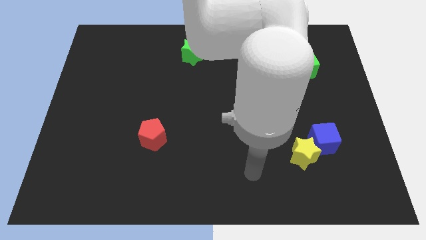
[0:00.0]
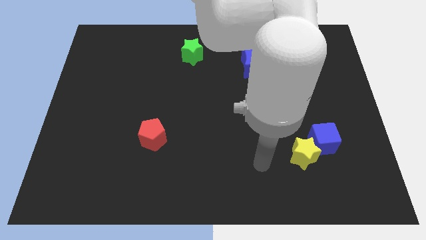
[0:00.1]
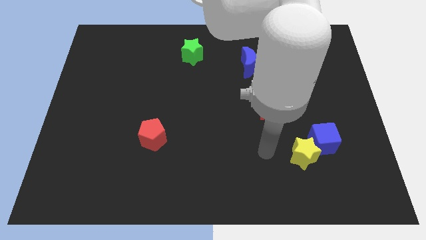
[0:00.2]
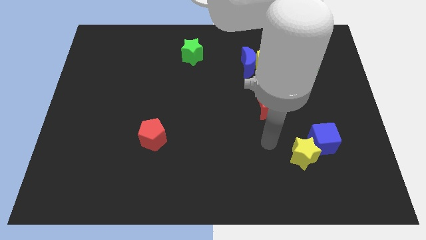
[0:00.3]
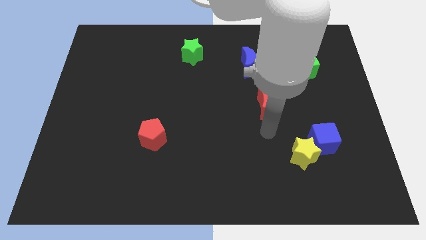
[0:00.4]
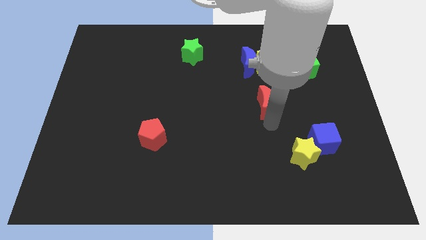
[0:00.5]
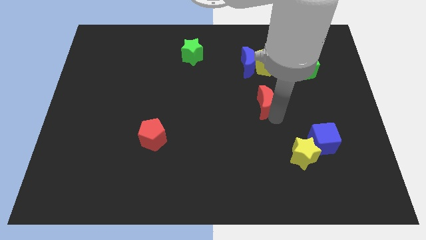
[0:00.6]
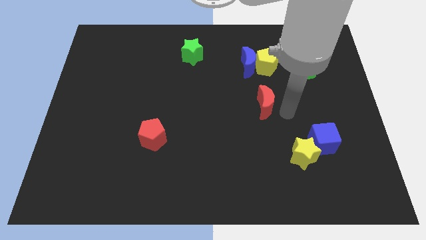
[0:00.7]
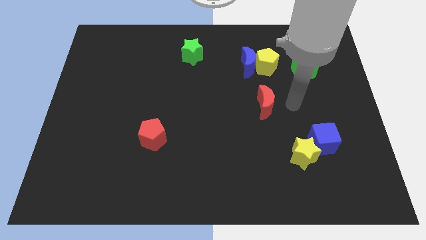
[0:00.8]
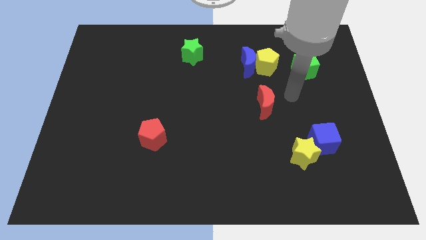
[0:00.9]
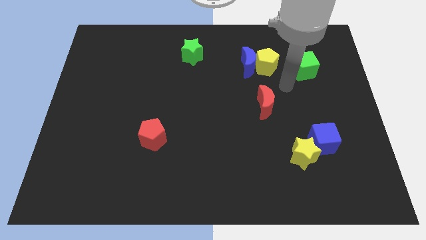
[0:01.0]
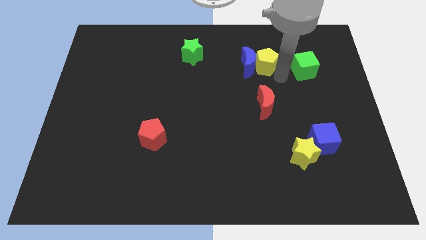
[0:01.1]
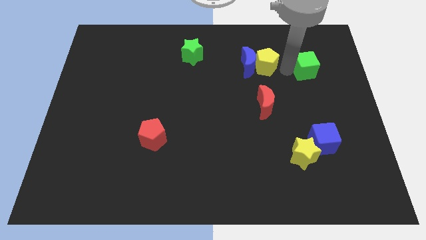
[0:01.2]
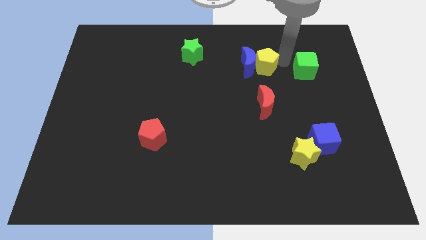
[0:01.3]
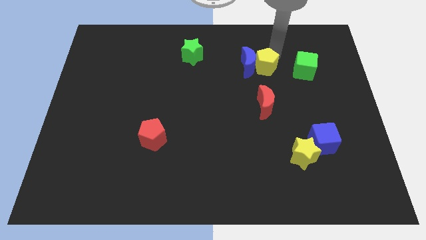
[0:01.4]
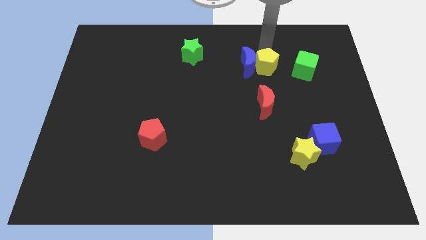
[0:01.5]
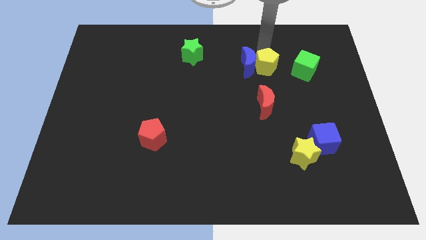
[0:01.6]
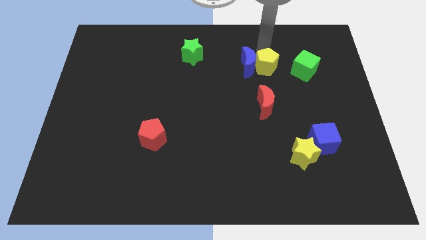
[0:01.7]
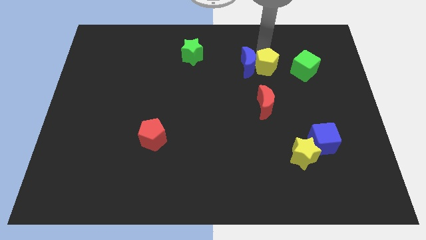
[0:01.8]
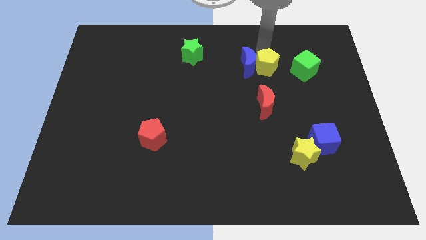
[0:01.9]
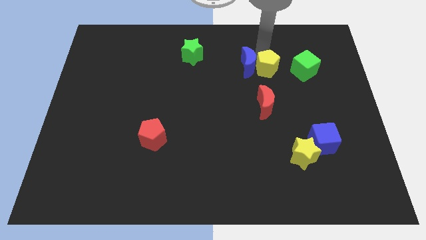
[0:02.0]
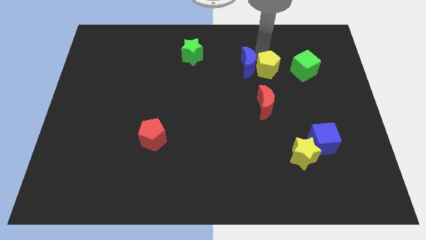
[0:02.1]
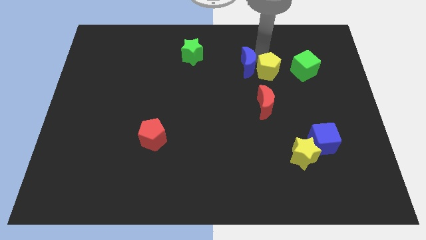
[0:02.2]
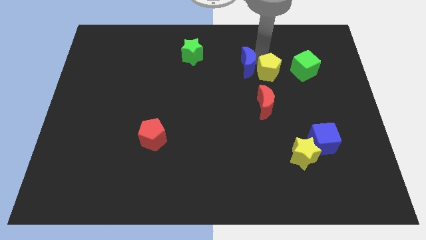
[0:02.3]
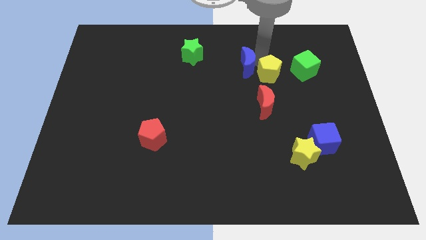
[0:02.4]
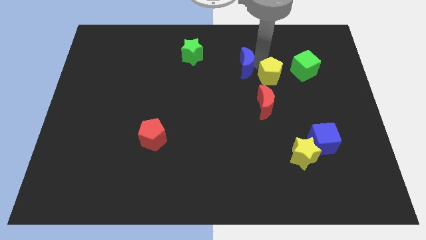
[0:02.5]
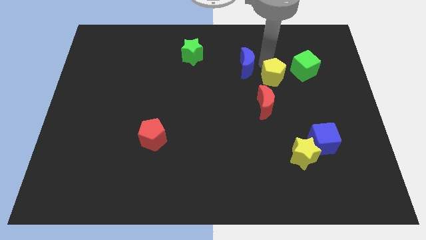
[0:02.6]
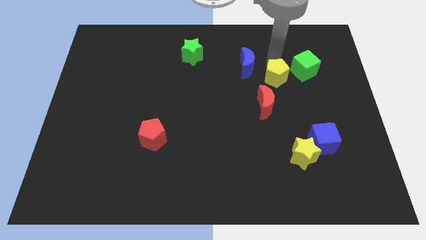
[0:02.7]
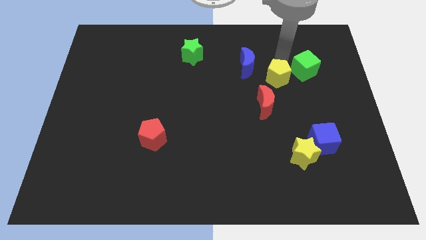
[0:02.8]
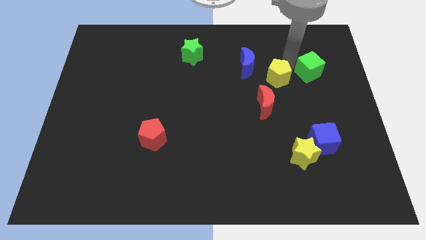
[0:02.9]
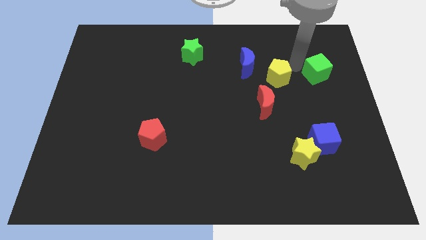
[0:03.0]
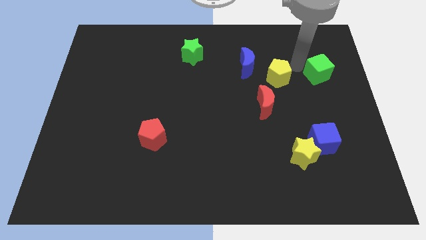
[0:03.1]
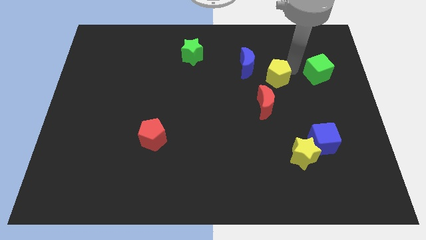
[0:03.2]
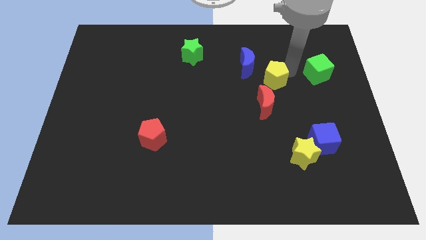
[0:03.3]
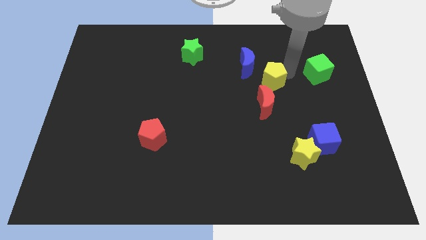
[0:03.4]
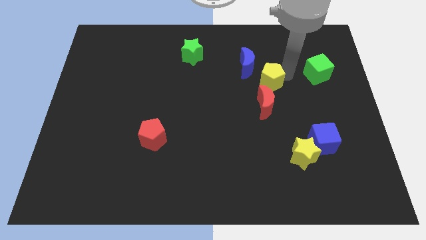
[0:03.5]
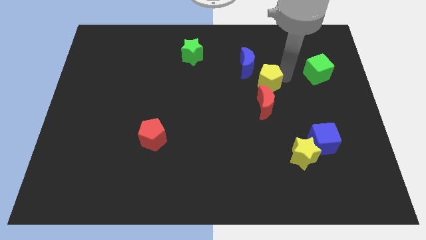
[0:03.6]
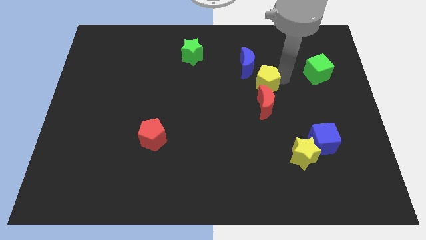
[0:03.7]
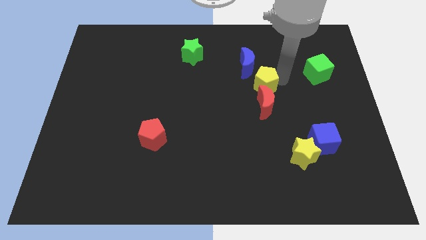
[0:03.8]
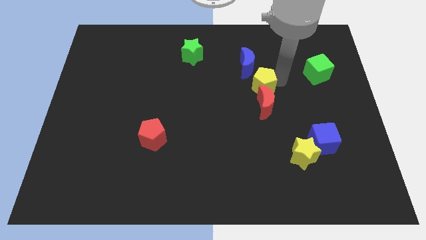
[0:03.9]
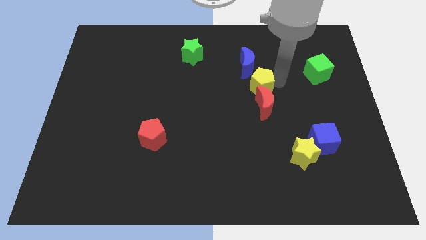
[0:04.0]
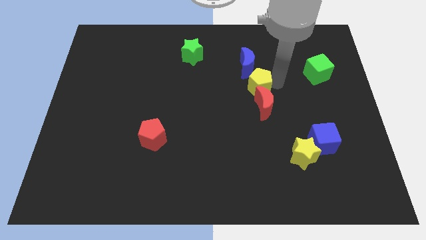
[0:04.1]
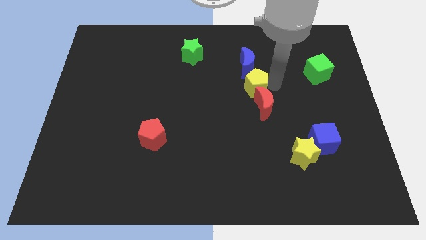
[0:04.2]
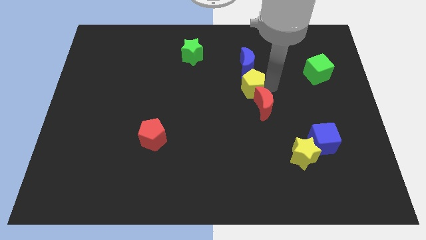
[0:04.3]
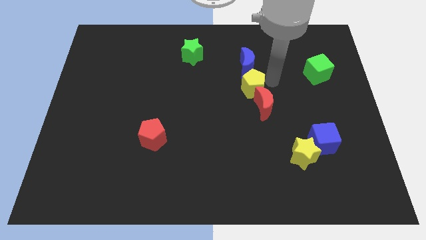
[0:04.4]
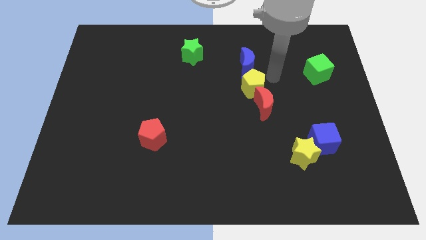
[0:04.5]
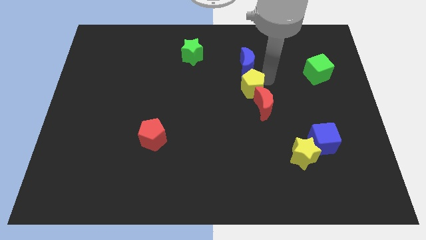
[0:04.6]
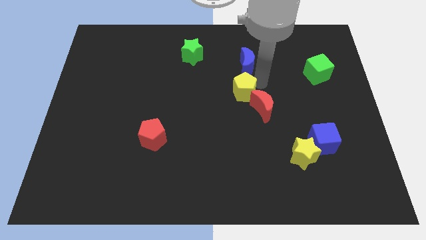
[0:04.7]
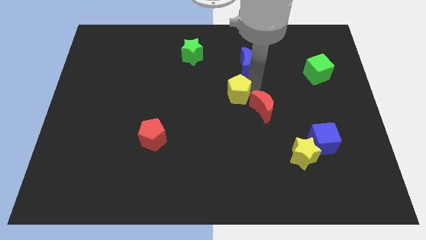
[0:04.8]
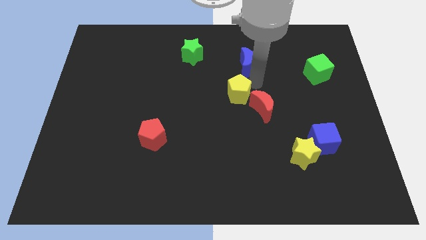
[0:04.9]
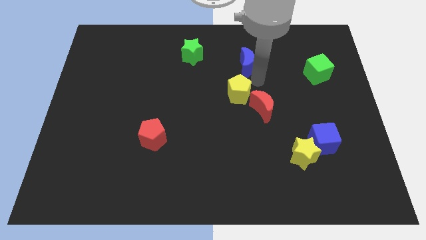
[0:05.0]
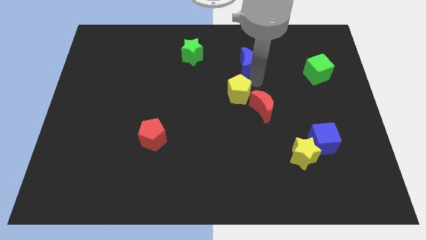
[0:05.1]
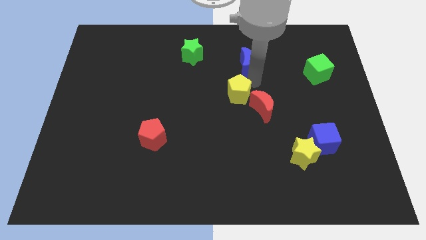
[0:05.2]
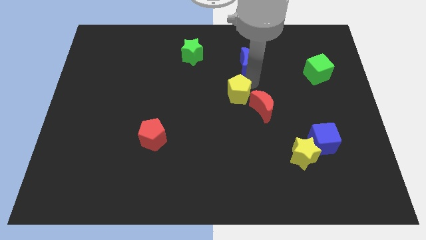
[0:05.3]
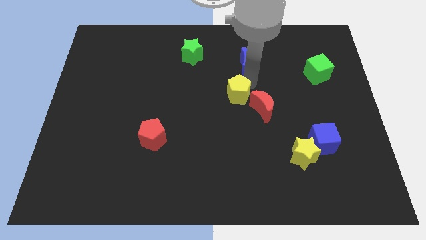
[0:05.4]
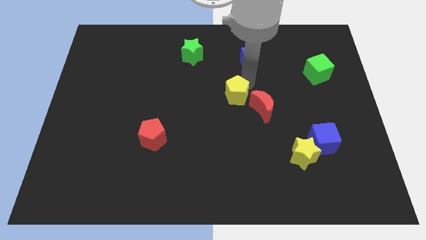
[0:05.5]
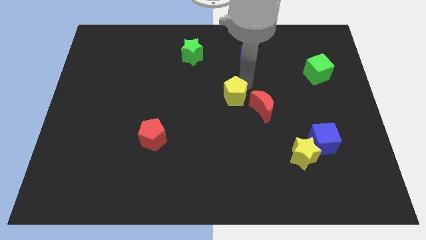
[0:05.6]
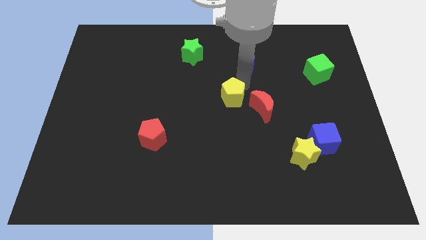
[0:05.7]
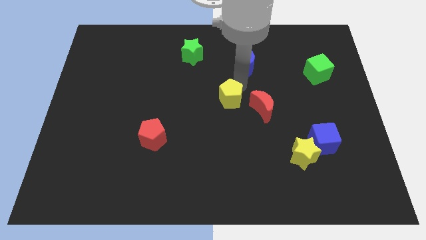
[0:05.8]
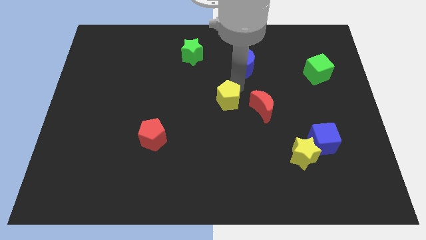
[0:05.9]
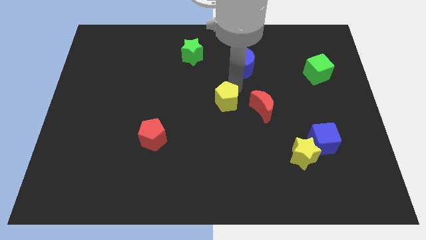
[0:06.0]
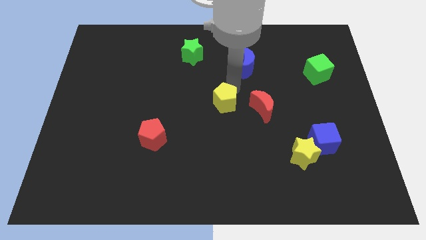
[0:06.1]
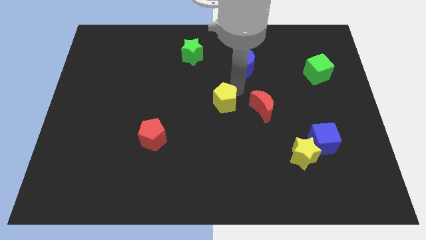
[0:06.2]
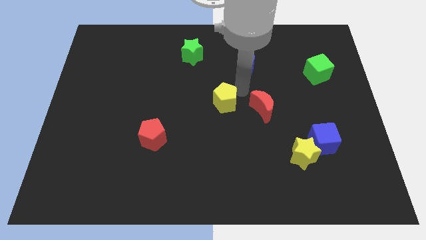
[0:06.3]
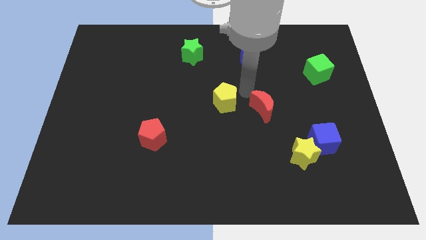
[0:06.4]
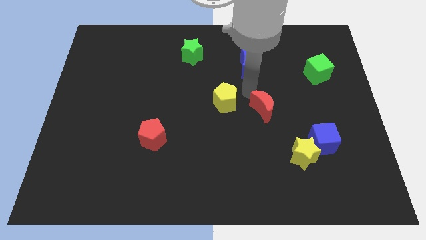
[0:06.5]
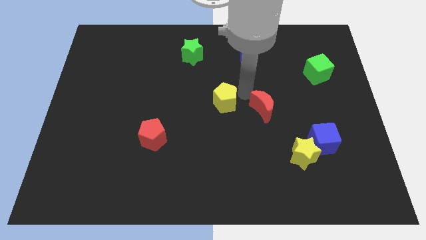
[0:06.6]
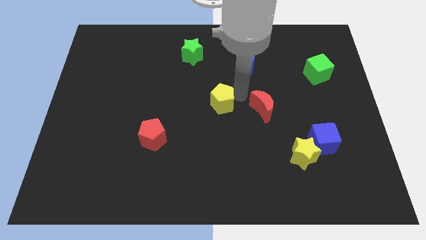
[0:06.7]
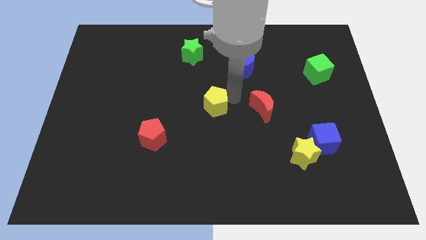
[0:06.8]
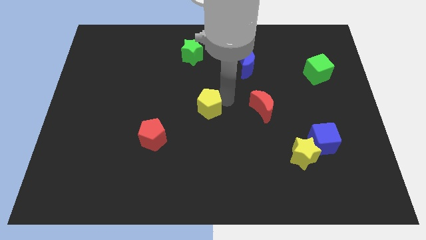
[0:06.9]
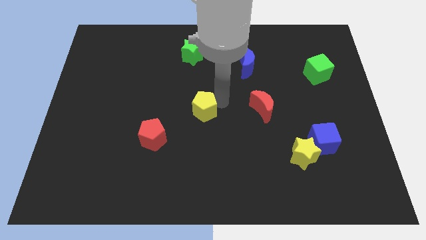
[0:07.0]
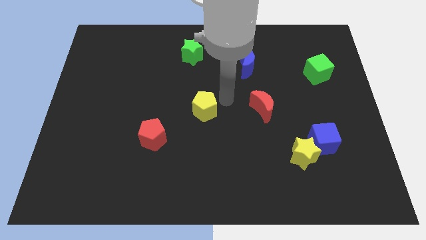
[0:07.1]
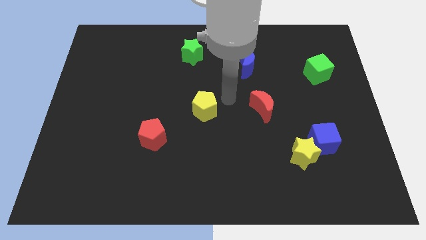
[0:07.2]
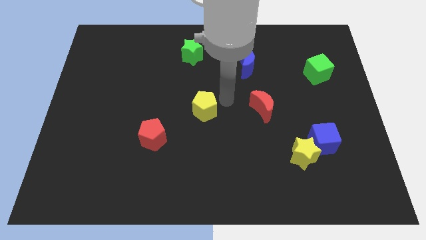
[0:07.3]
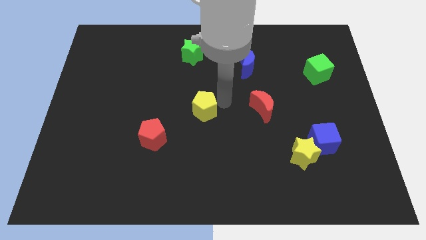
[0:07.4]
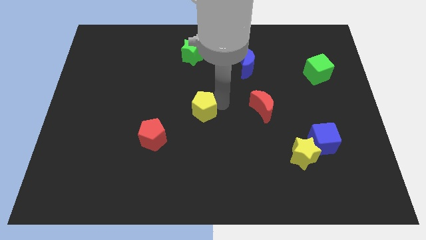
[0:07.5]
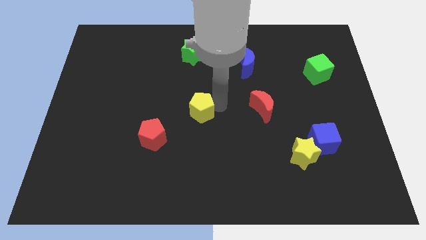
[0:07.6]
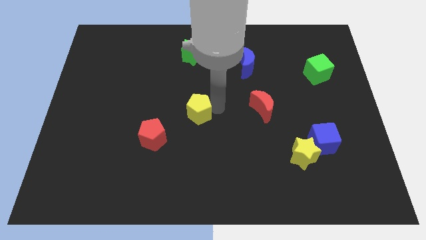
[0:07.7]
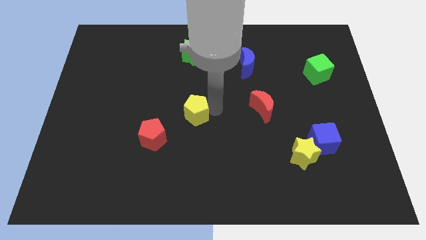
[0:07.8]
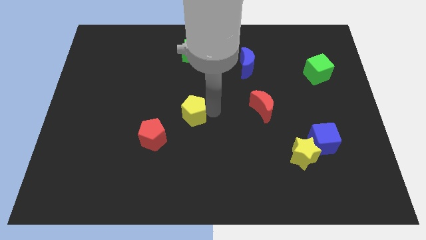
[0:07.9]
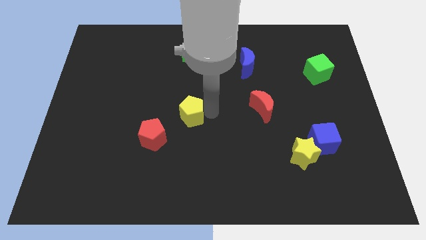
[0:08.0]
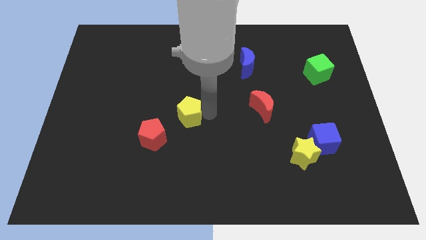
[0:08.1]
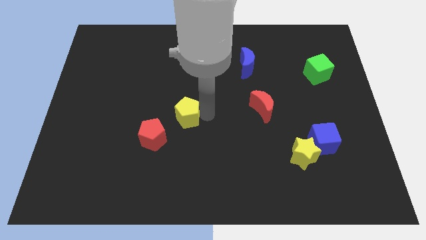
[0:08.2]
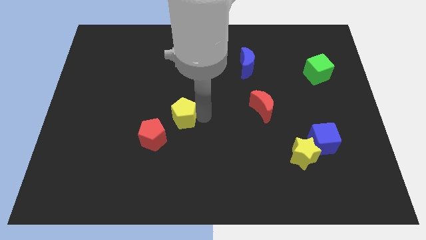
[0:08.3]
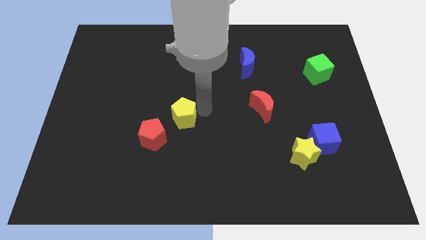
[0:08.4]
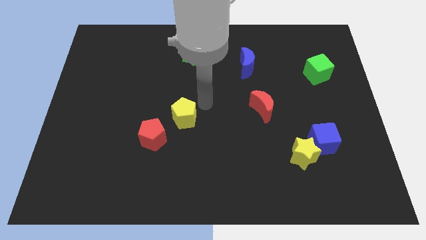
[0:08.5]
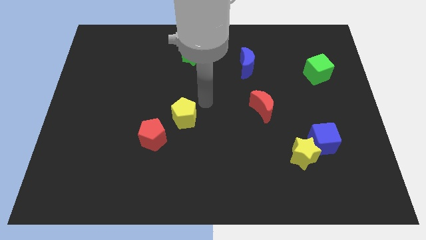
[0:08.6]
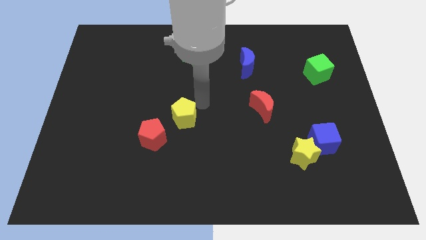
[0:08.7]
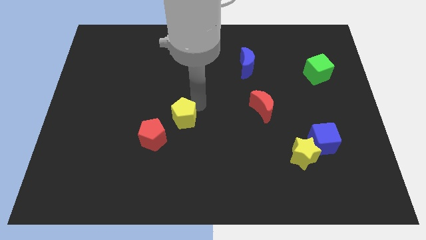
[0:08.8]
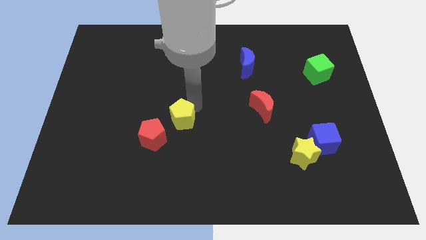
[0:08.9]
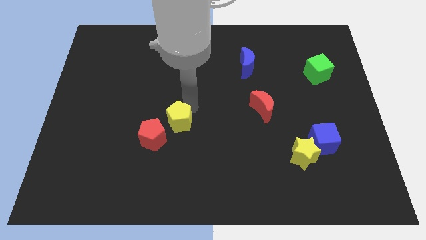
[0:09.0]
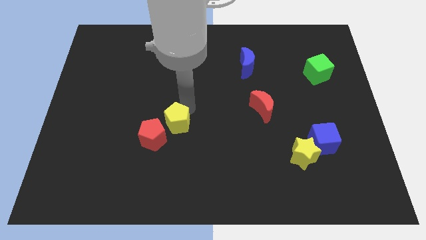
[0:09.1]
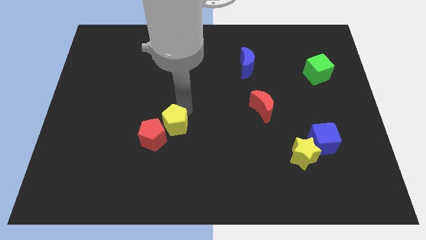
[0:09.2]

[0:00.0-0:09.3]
push the yellow pentagon to the red pentagon
